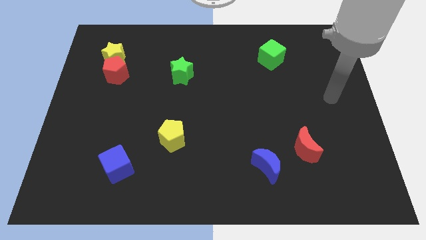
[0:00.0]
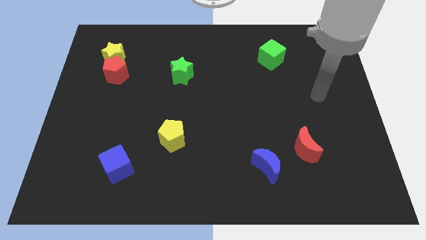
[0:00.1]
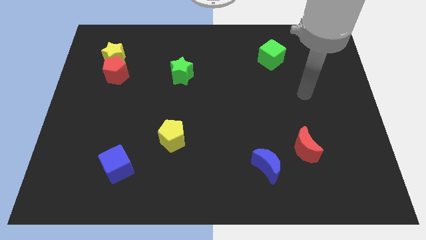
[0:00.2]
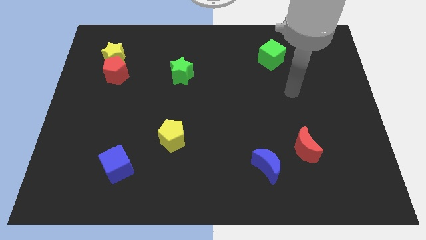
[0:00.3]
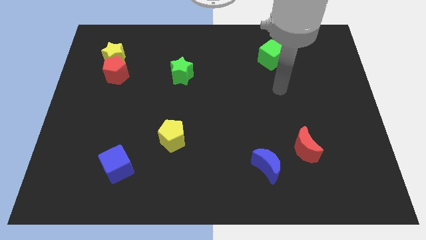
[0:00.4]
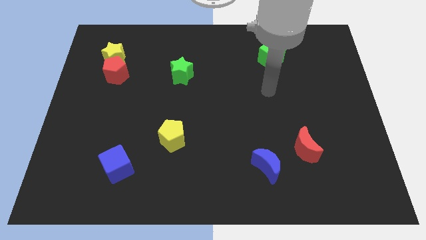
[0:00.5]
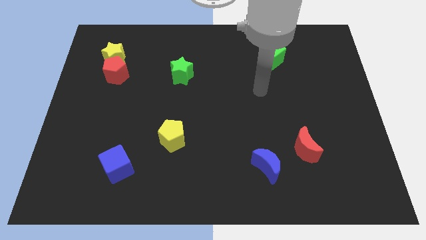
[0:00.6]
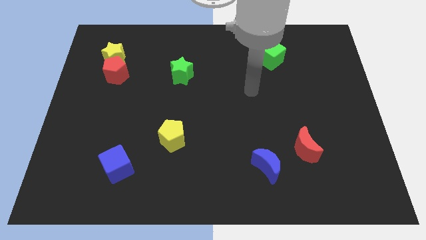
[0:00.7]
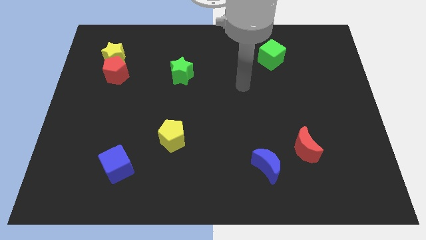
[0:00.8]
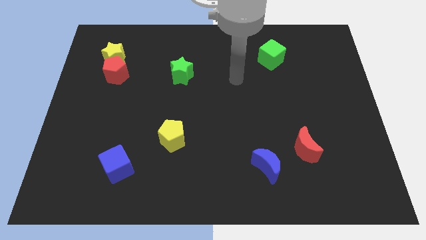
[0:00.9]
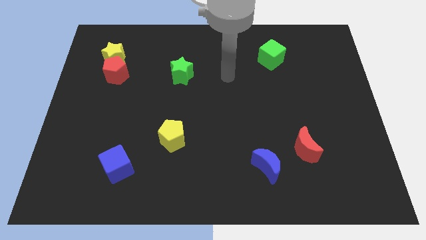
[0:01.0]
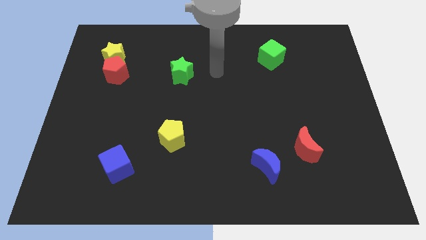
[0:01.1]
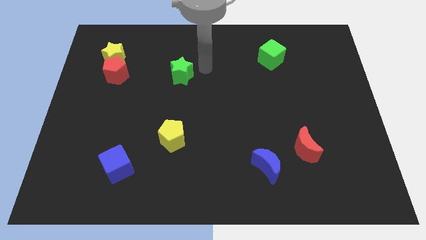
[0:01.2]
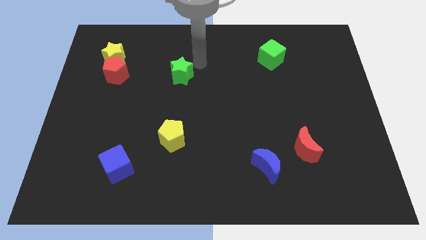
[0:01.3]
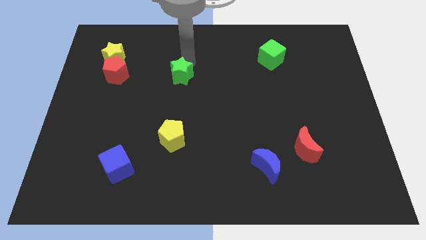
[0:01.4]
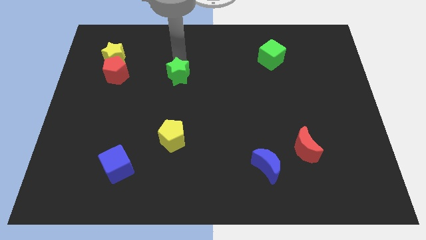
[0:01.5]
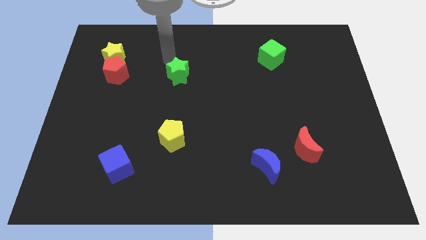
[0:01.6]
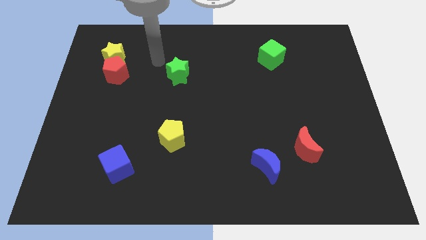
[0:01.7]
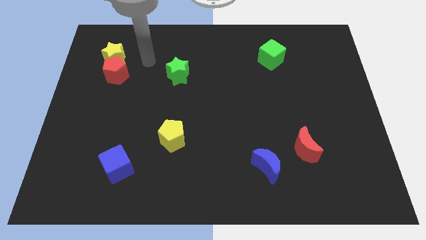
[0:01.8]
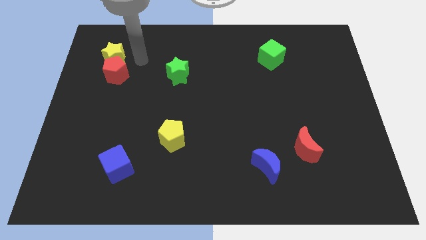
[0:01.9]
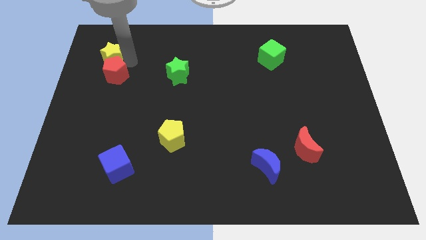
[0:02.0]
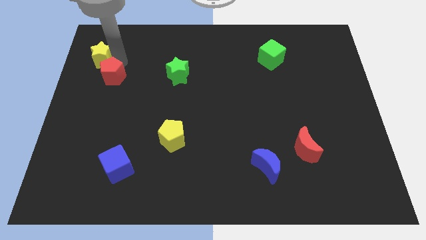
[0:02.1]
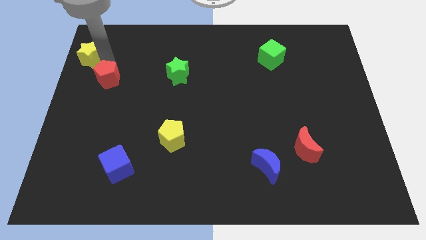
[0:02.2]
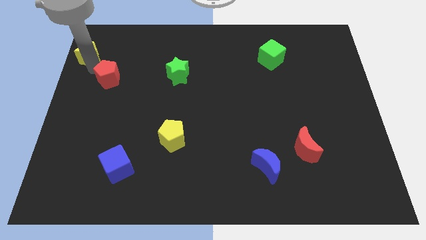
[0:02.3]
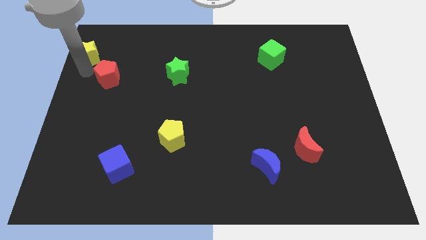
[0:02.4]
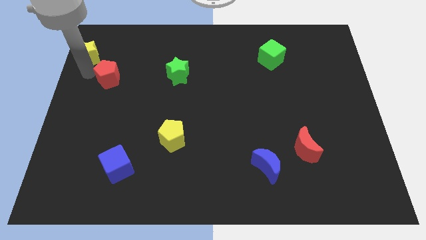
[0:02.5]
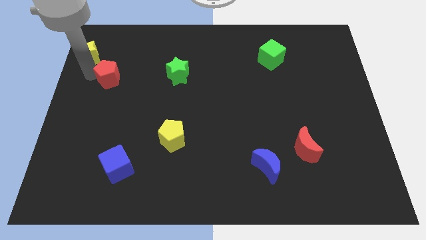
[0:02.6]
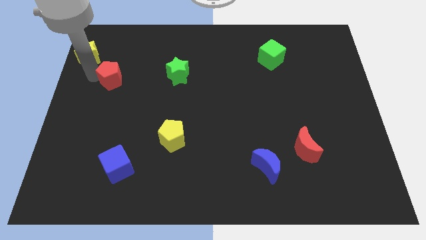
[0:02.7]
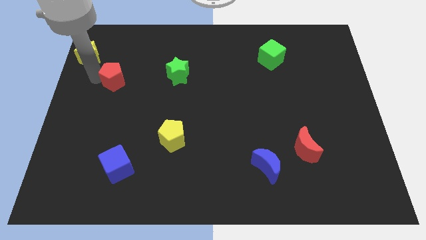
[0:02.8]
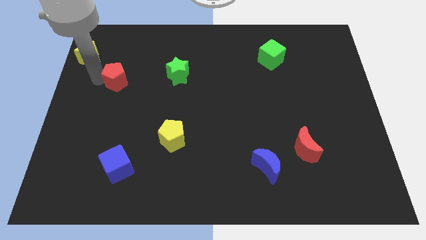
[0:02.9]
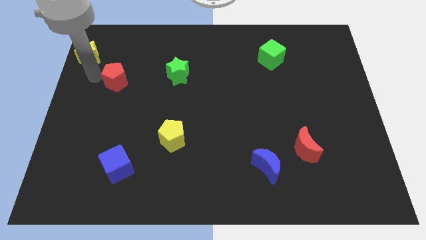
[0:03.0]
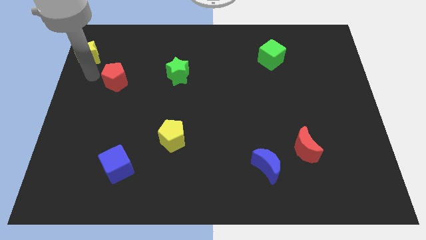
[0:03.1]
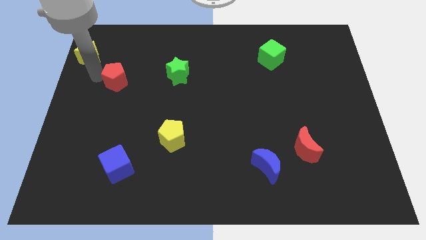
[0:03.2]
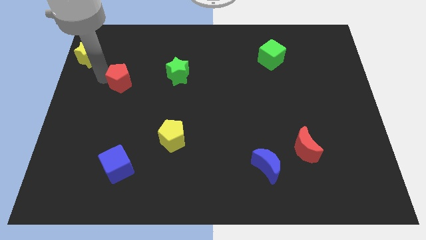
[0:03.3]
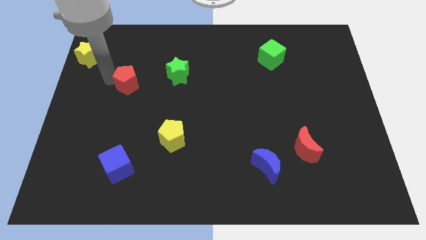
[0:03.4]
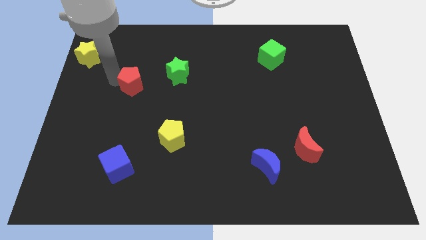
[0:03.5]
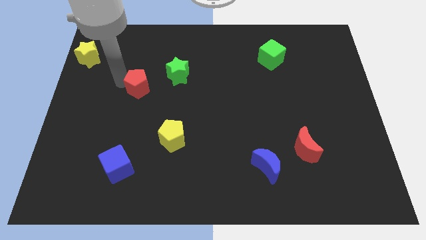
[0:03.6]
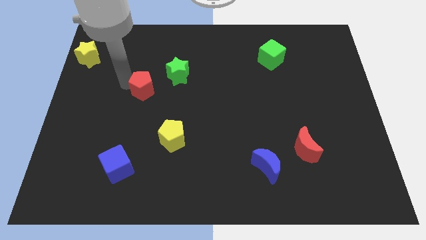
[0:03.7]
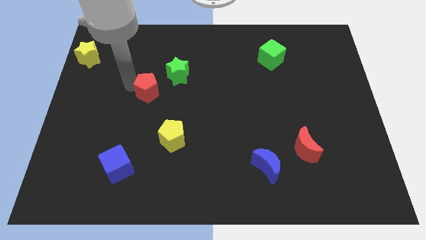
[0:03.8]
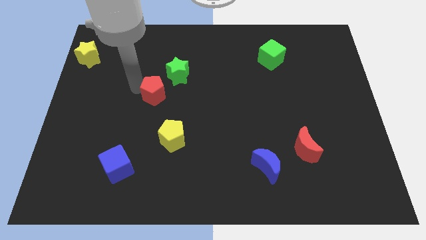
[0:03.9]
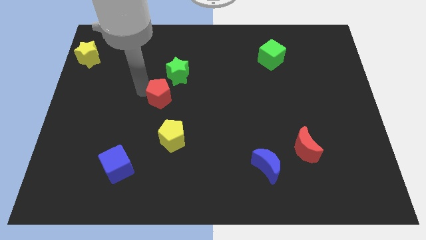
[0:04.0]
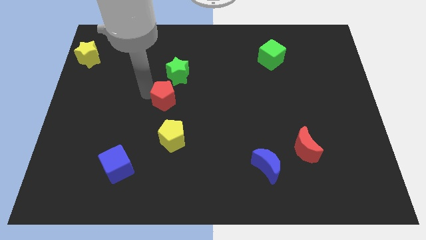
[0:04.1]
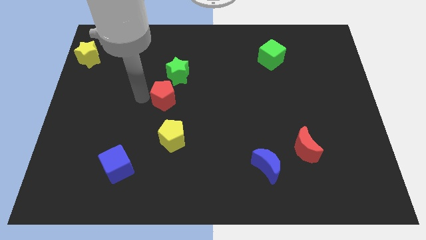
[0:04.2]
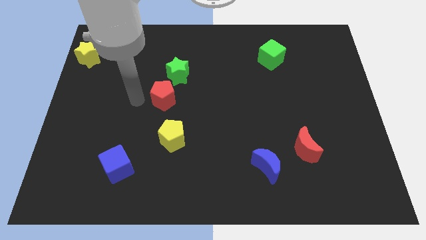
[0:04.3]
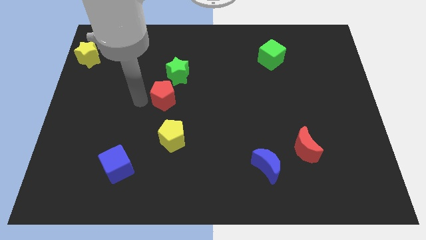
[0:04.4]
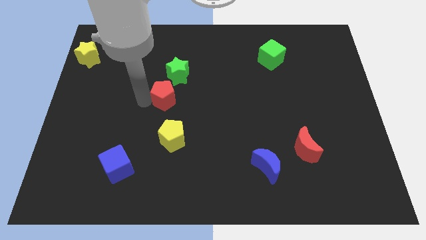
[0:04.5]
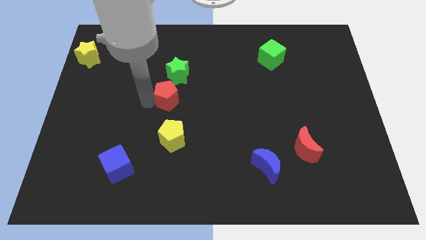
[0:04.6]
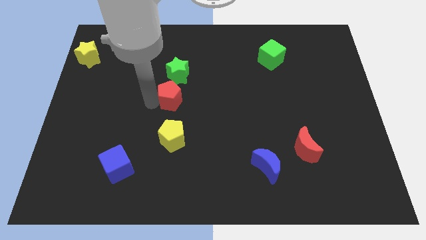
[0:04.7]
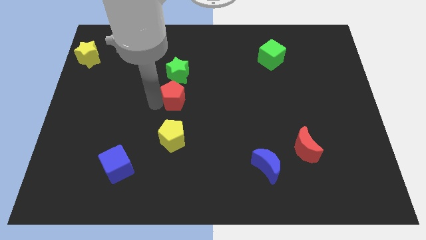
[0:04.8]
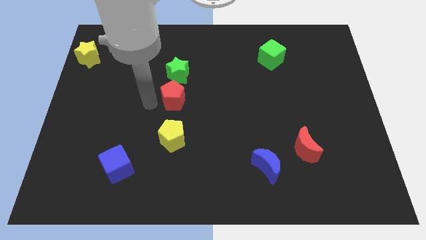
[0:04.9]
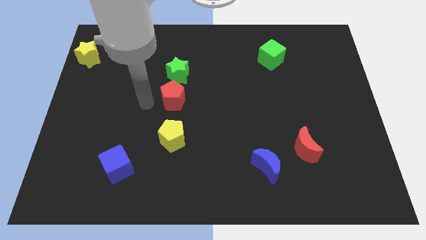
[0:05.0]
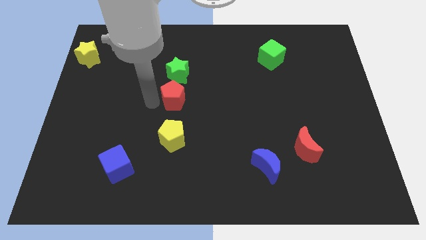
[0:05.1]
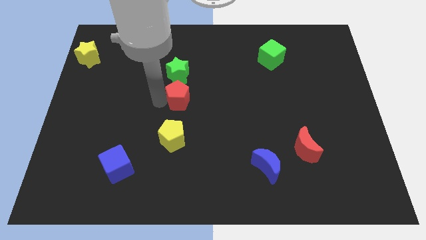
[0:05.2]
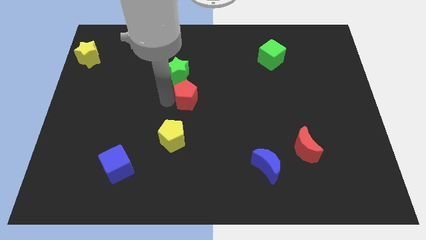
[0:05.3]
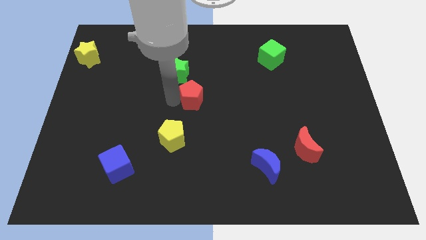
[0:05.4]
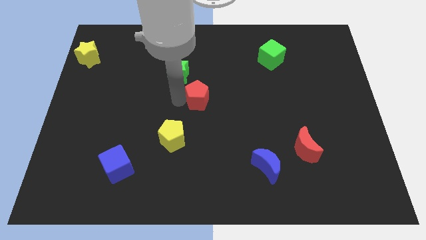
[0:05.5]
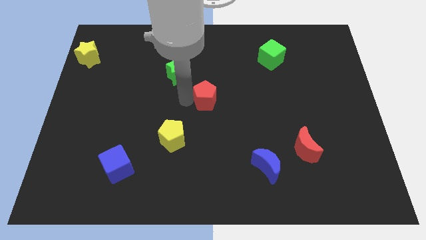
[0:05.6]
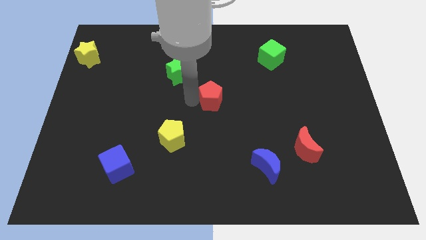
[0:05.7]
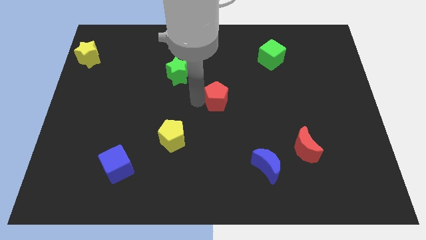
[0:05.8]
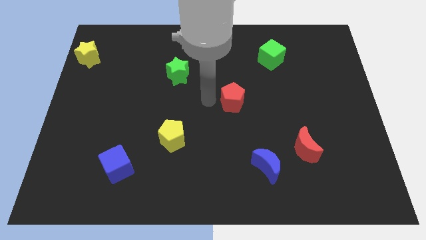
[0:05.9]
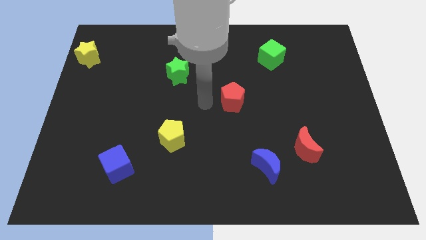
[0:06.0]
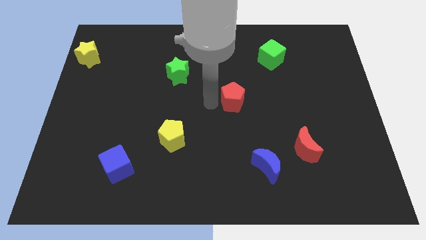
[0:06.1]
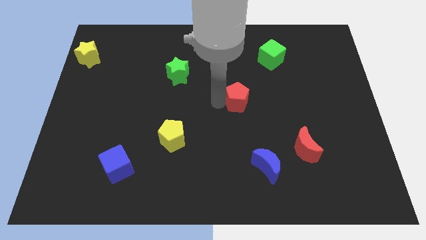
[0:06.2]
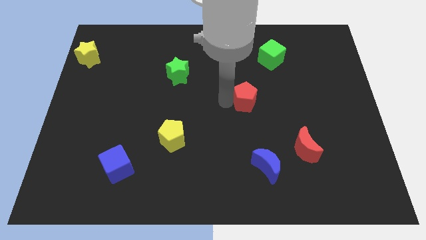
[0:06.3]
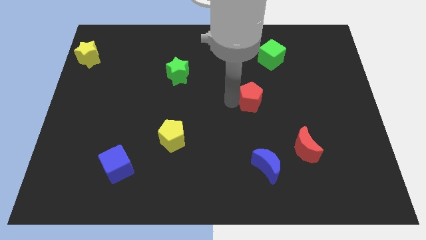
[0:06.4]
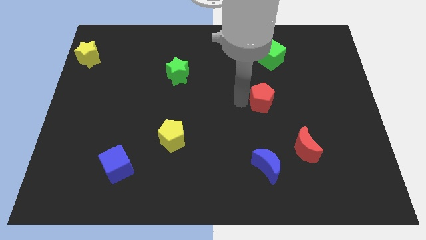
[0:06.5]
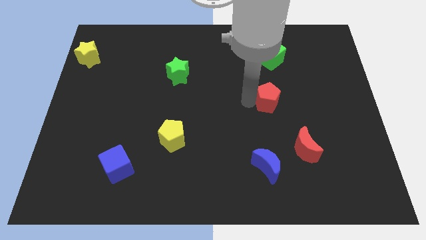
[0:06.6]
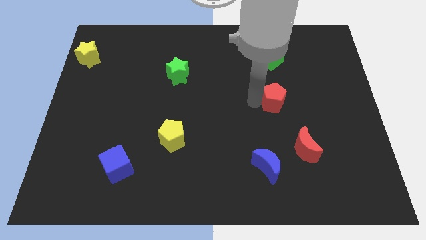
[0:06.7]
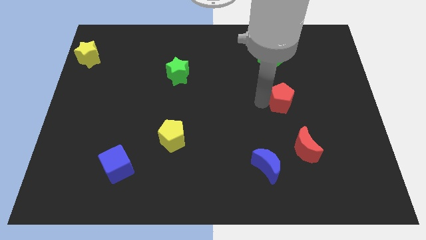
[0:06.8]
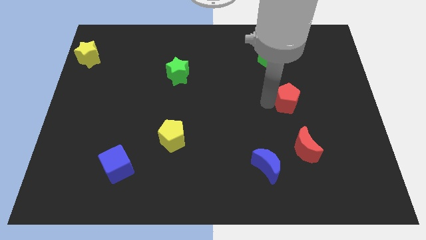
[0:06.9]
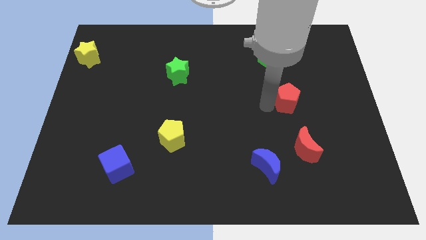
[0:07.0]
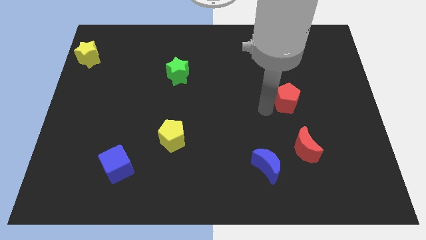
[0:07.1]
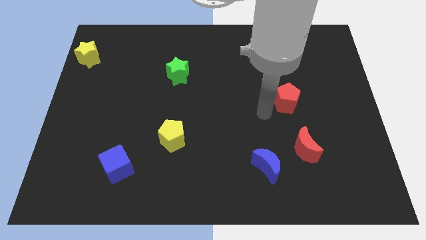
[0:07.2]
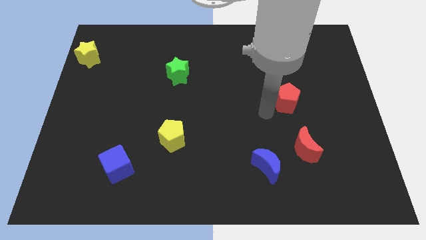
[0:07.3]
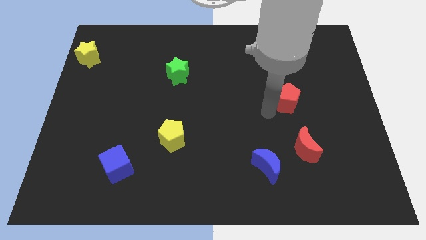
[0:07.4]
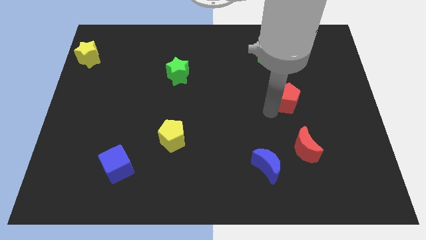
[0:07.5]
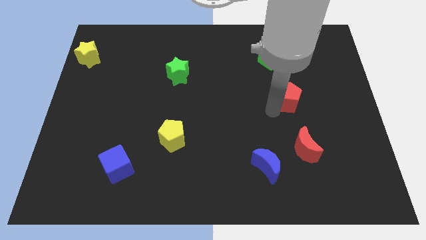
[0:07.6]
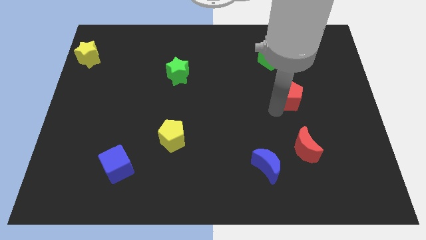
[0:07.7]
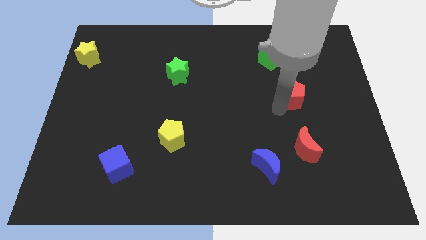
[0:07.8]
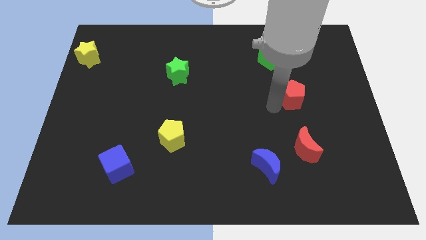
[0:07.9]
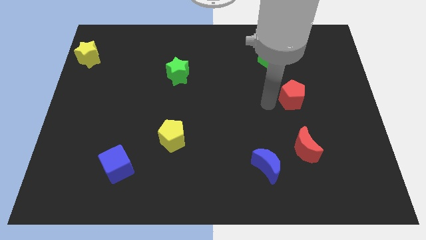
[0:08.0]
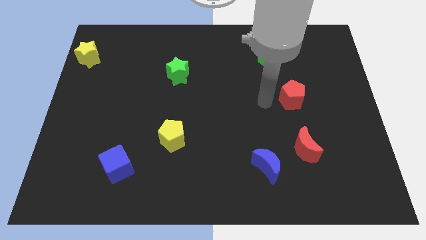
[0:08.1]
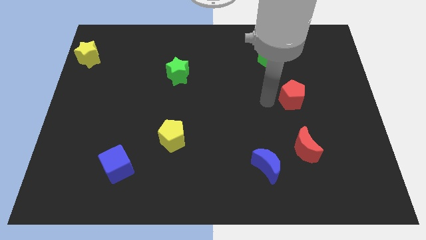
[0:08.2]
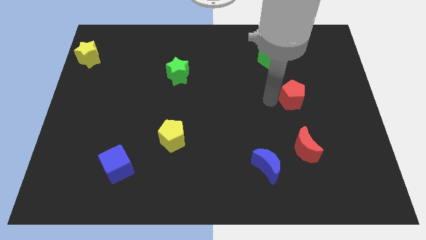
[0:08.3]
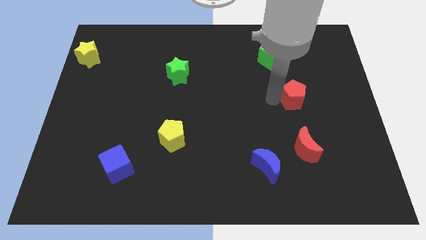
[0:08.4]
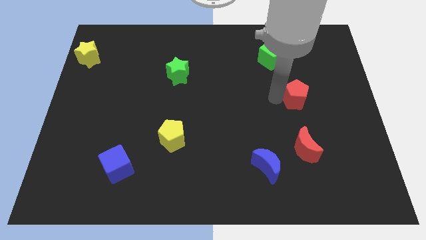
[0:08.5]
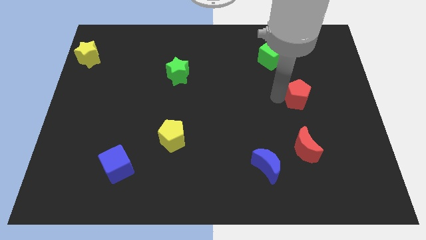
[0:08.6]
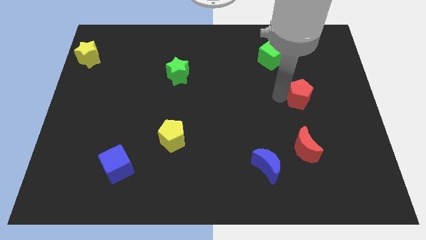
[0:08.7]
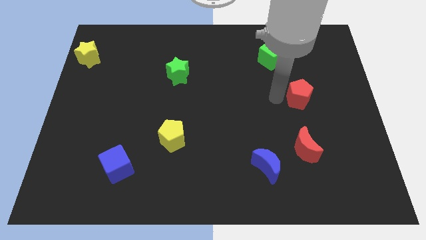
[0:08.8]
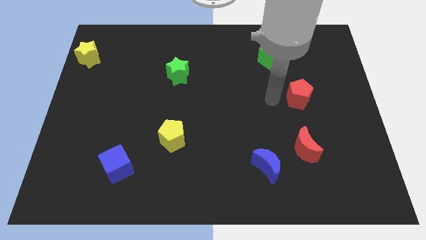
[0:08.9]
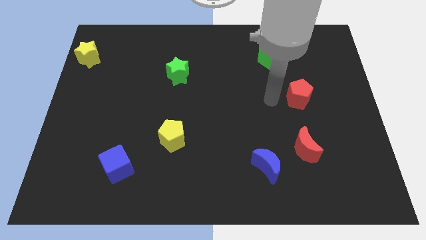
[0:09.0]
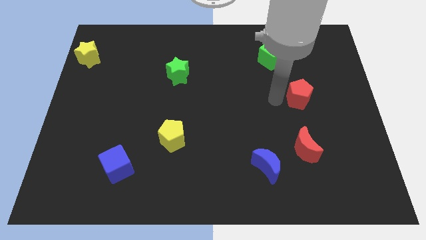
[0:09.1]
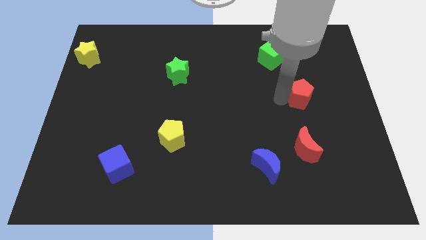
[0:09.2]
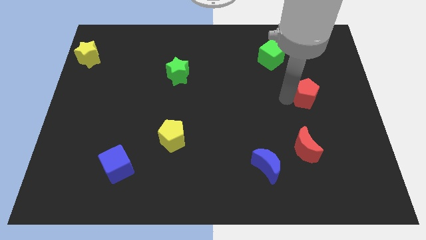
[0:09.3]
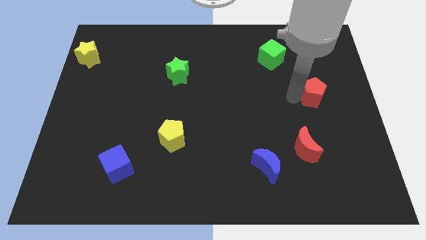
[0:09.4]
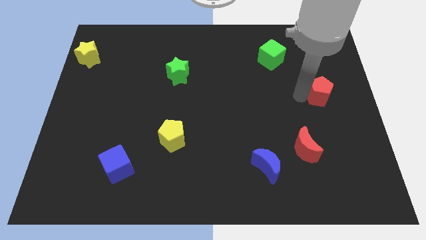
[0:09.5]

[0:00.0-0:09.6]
move the red pentagon to the center right
